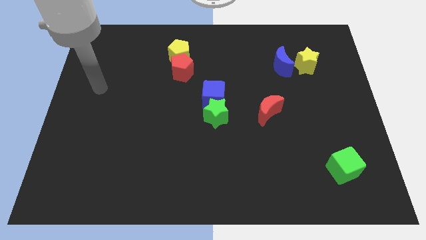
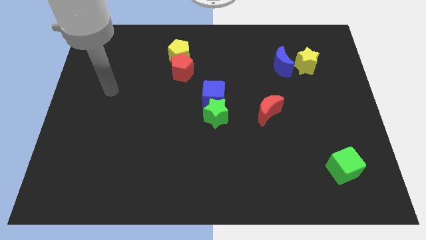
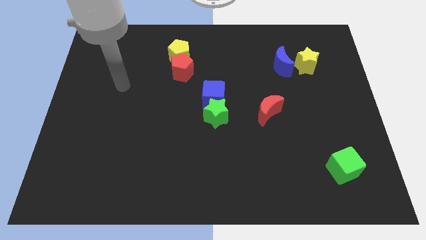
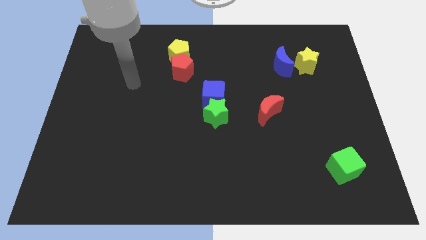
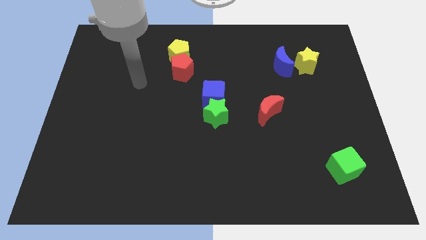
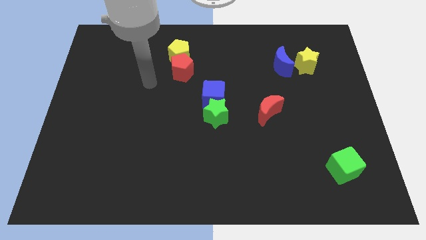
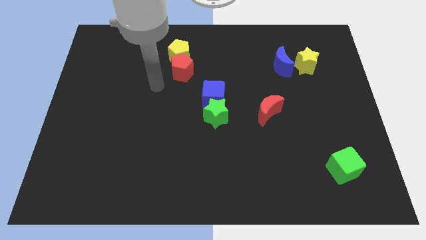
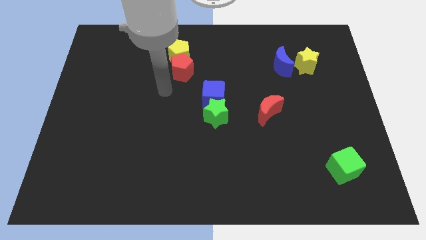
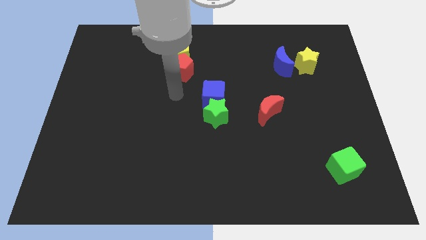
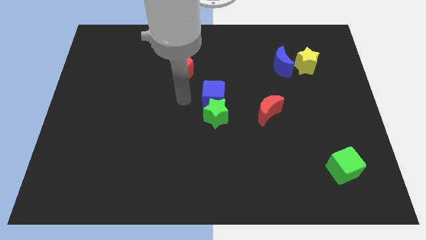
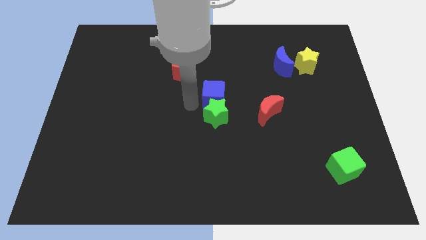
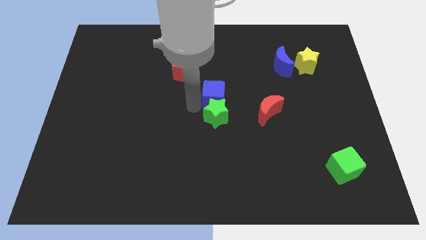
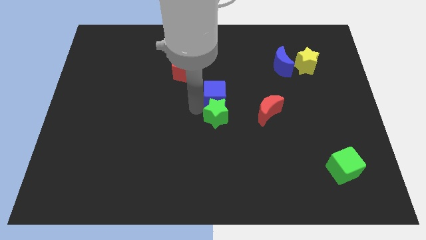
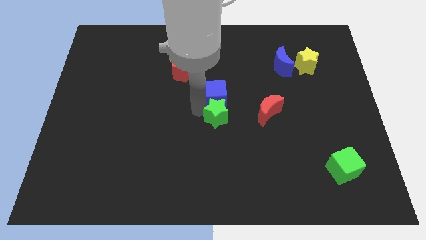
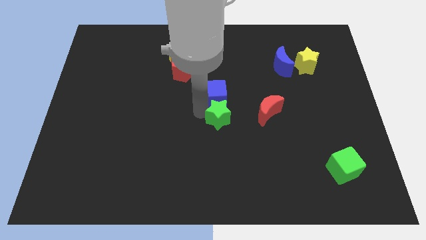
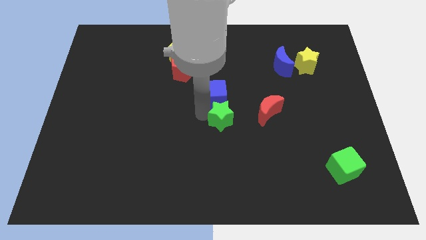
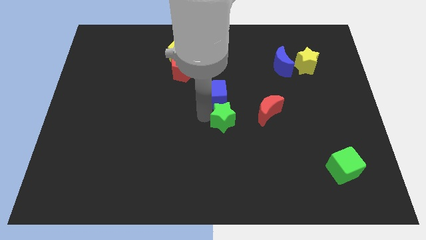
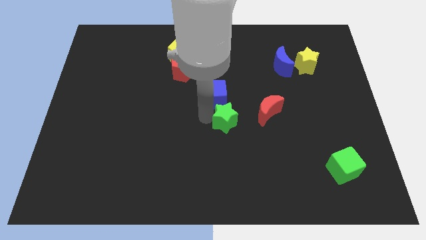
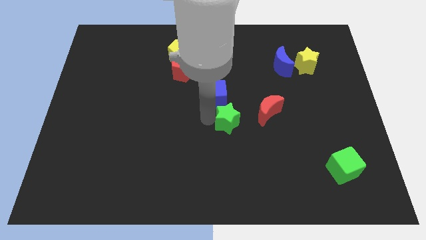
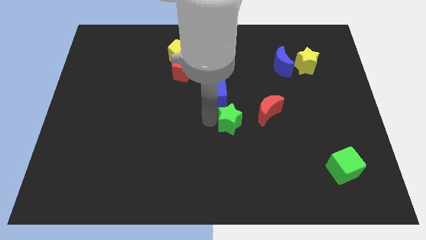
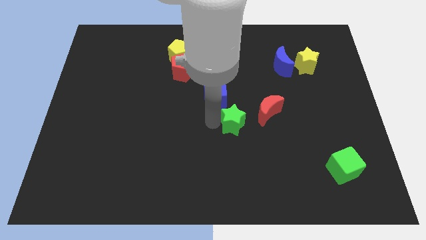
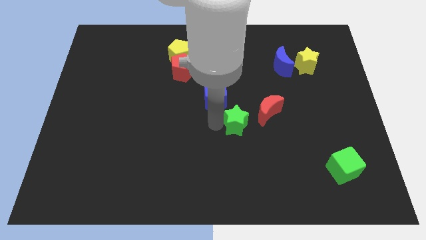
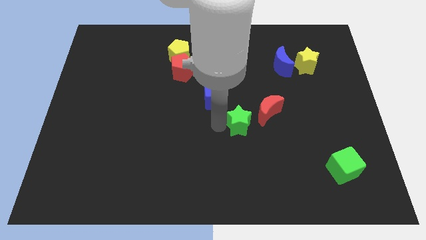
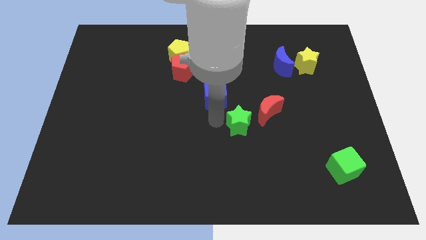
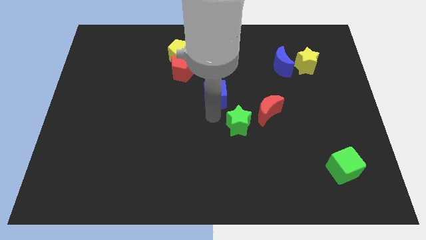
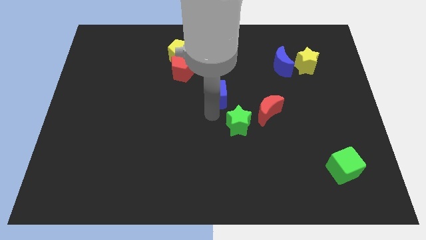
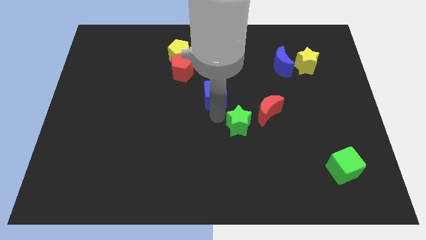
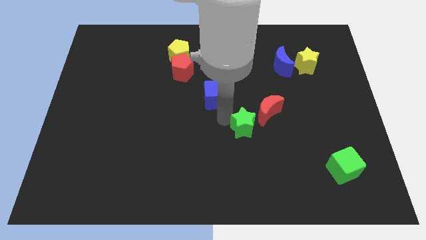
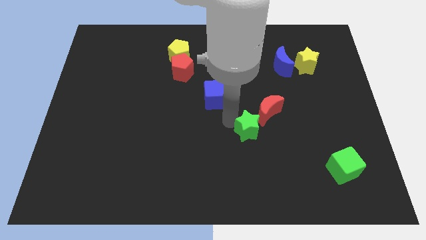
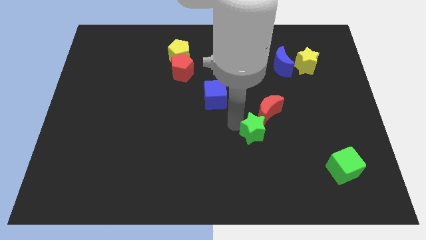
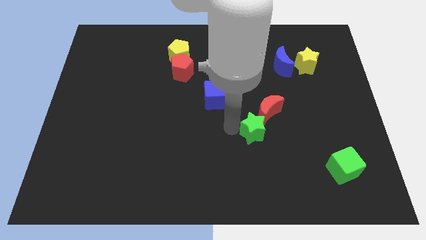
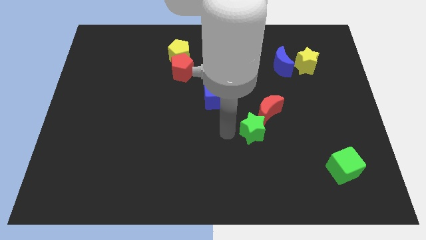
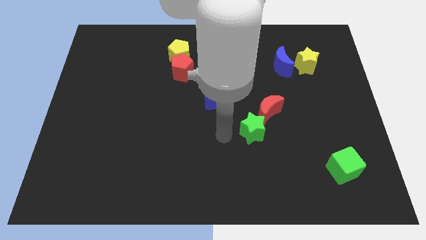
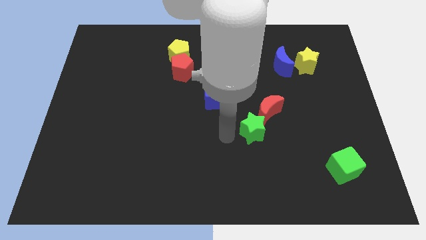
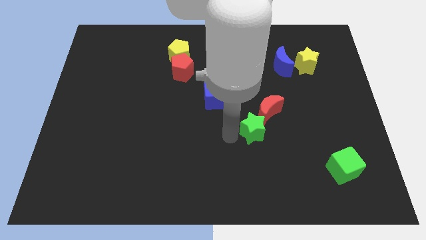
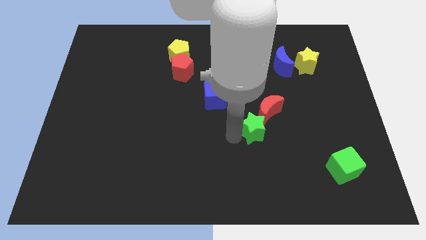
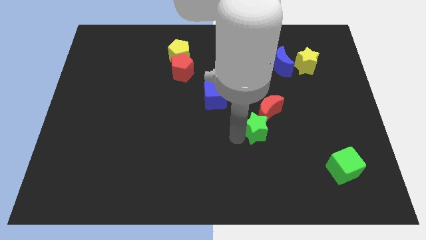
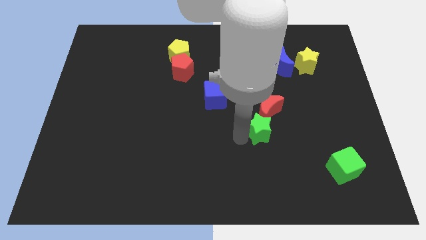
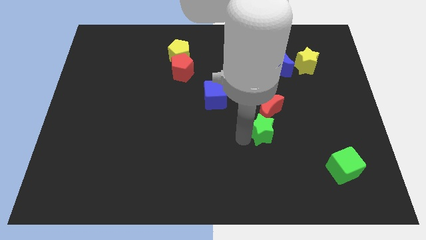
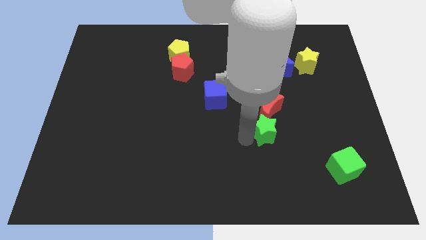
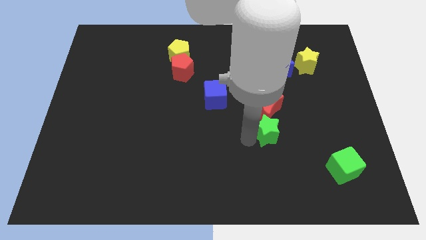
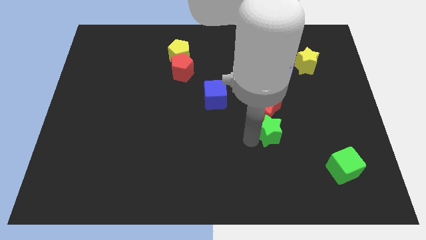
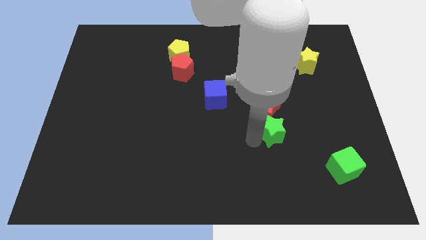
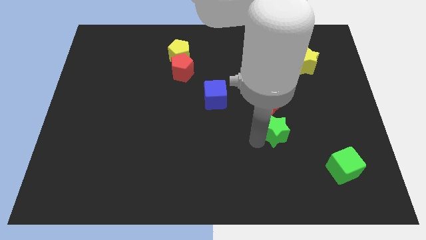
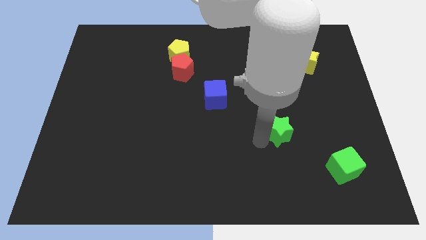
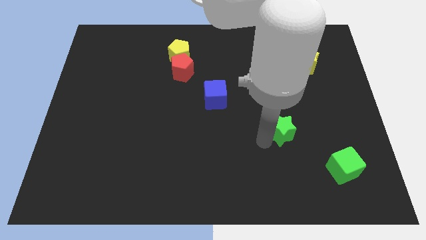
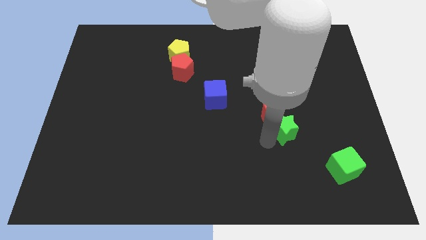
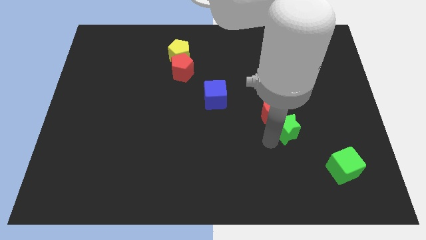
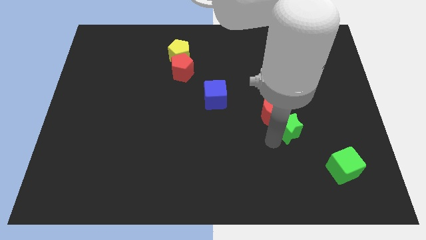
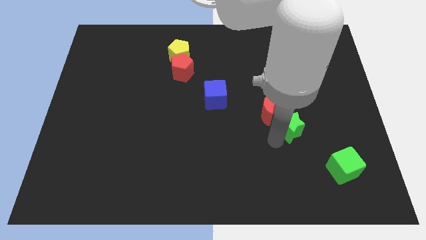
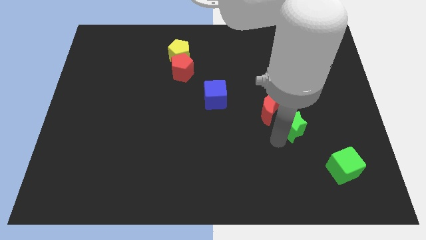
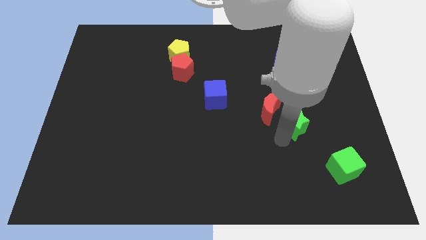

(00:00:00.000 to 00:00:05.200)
slide the green star to the right of the red moon

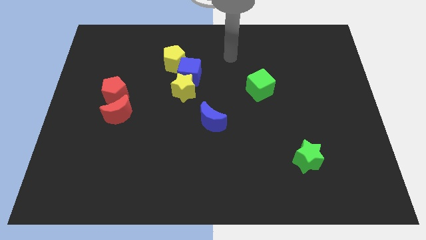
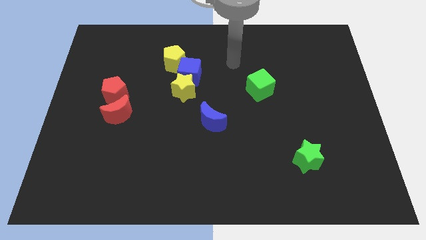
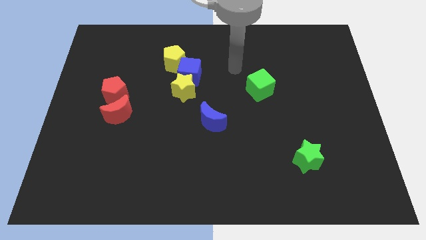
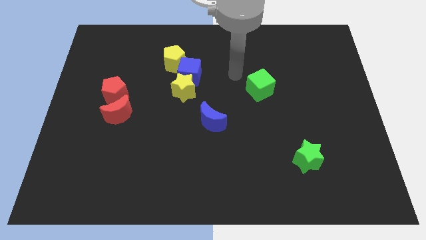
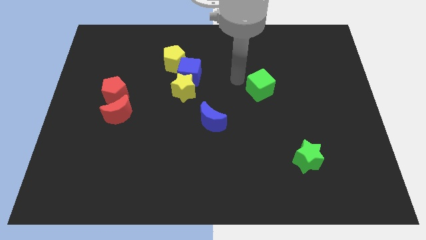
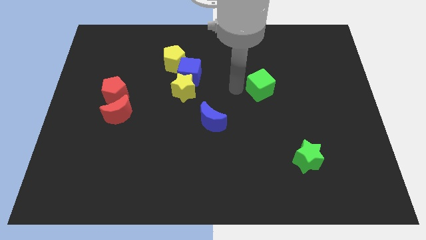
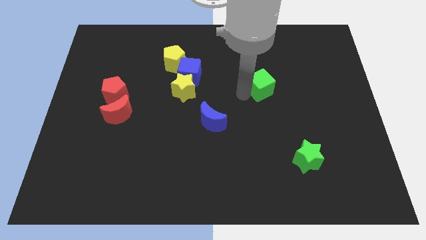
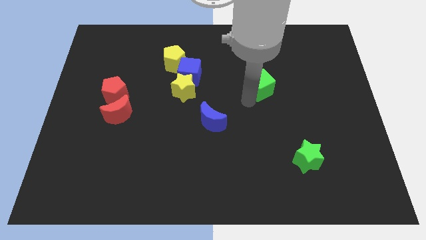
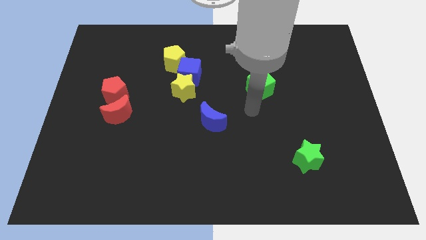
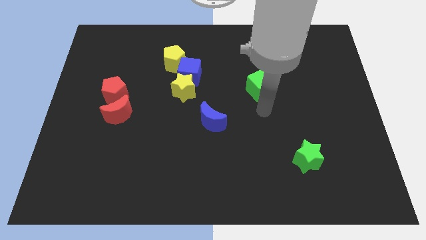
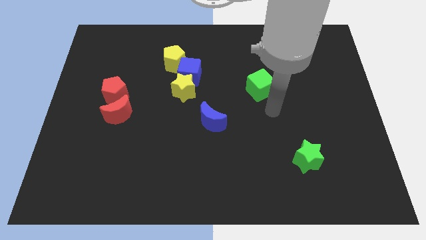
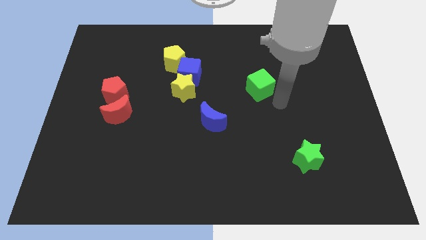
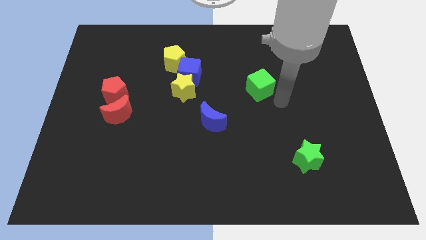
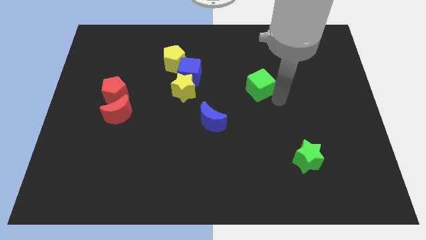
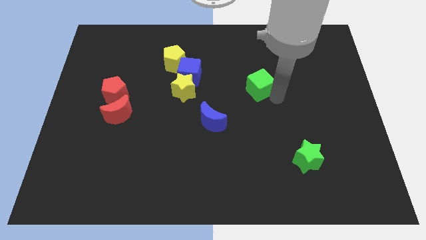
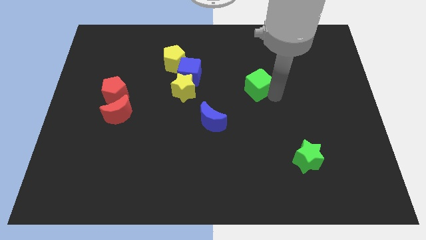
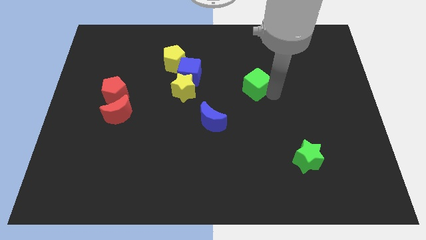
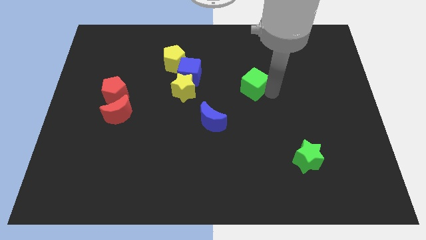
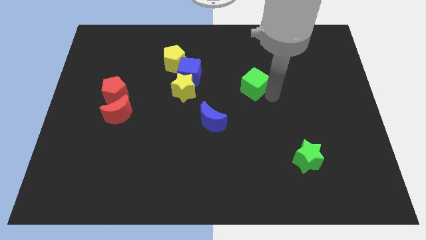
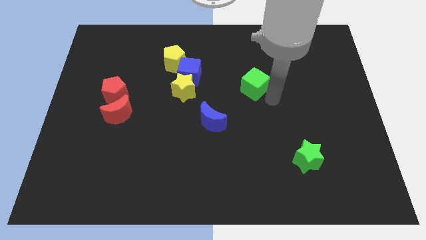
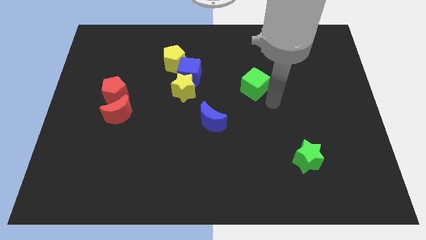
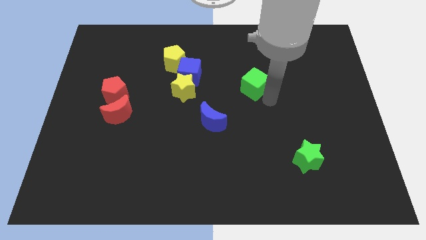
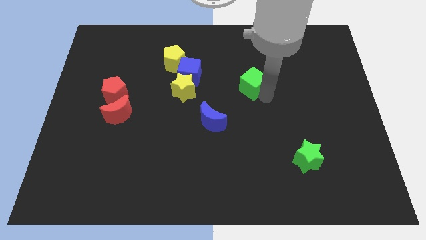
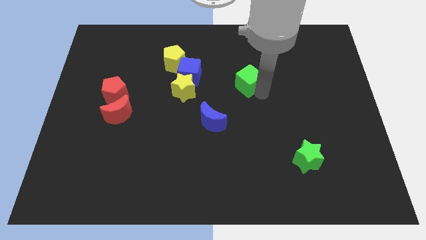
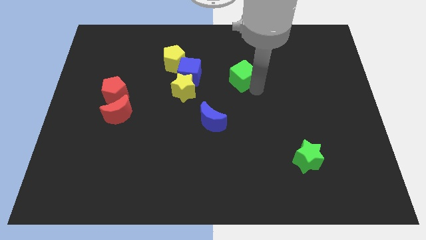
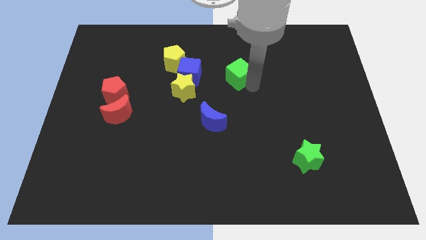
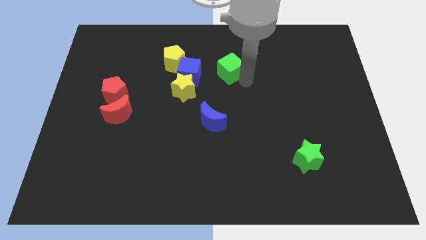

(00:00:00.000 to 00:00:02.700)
move the green cube to the right side of the yellow pentagon

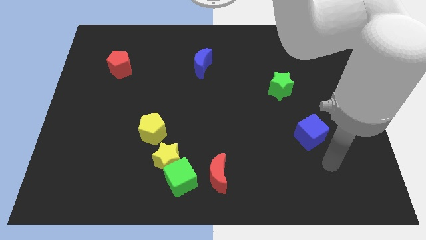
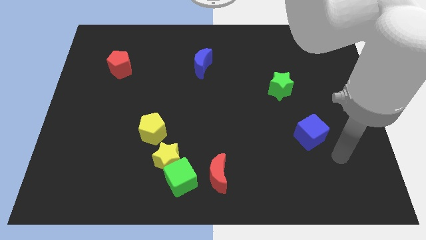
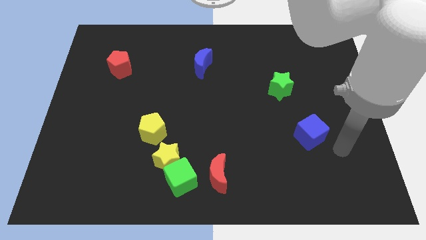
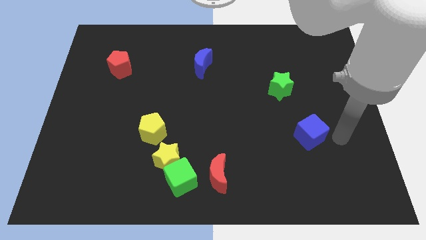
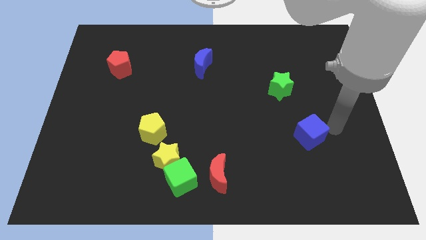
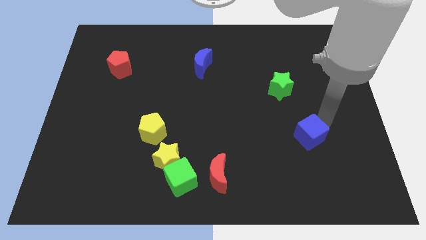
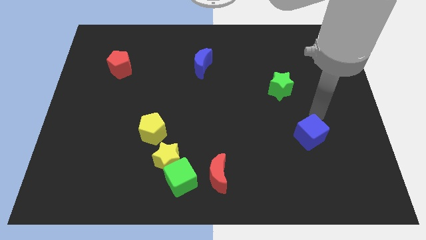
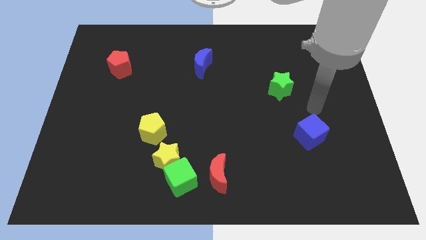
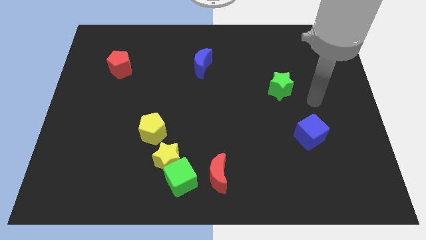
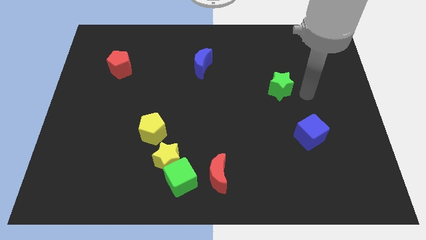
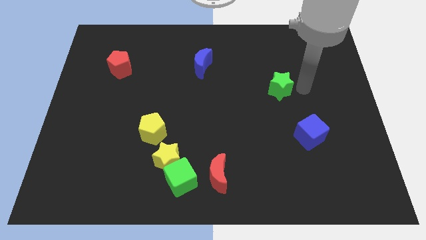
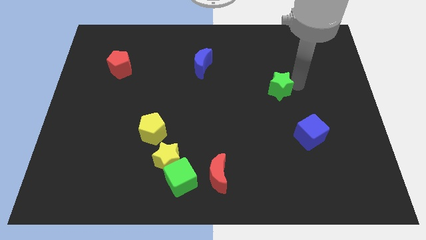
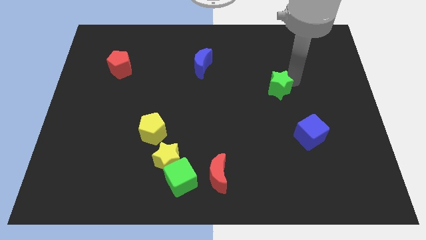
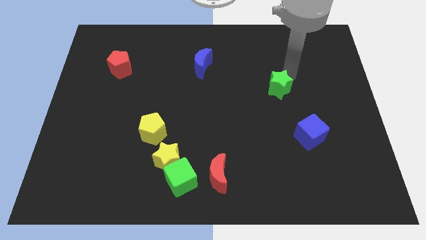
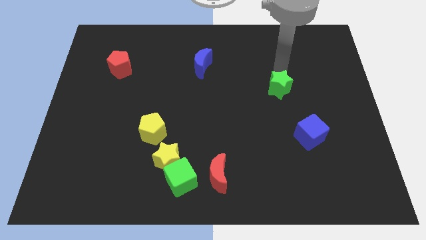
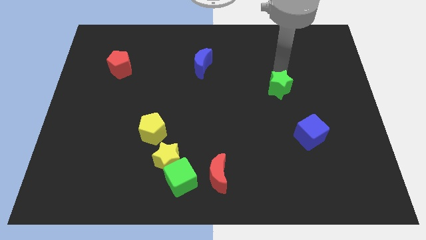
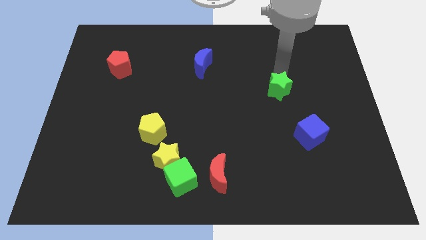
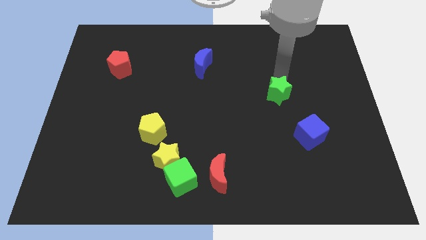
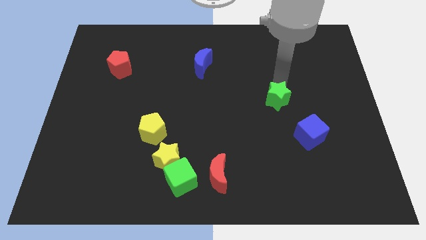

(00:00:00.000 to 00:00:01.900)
push the green star diagonally up and to the left of the blue cube
